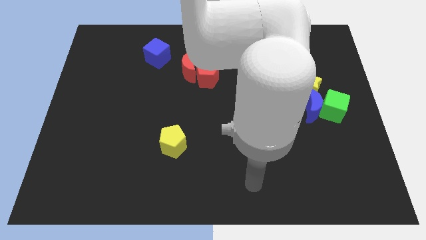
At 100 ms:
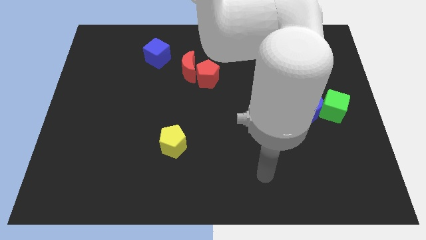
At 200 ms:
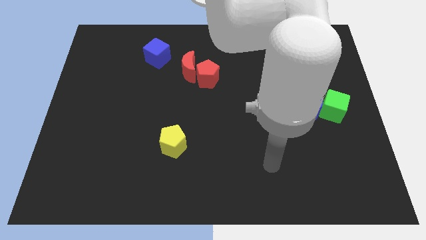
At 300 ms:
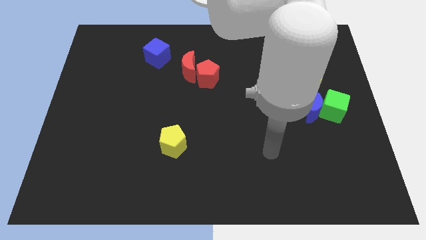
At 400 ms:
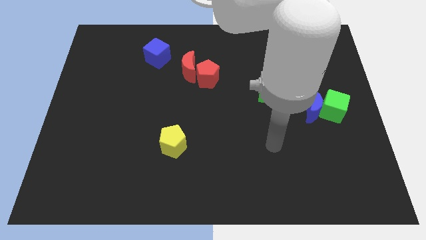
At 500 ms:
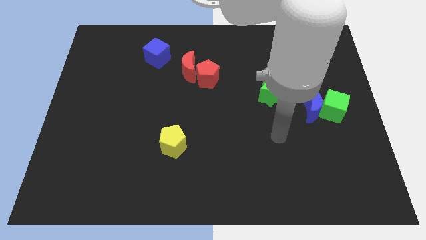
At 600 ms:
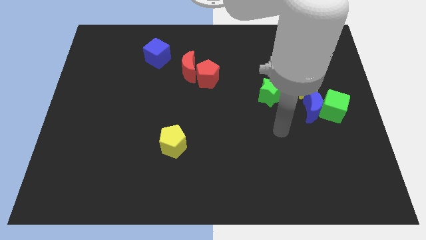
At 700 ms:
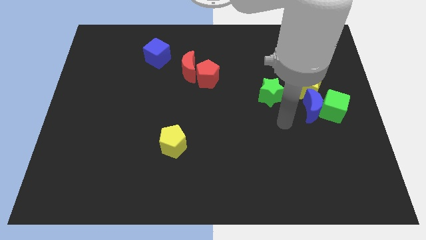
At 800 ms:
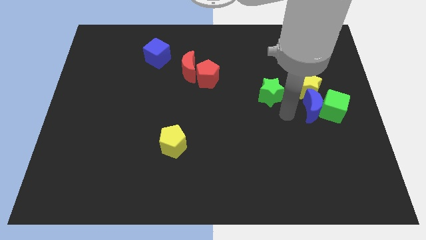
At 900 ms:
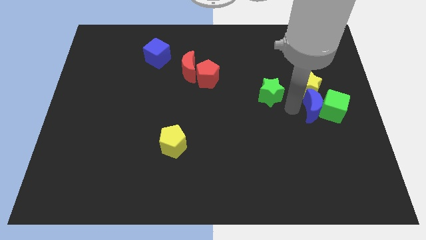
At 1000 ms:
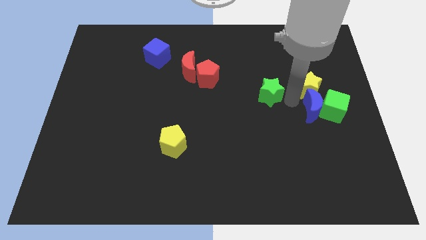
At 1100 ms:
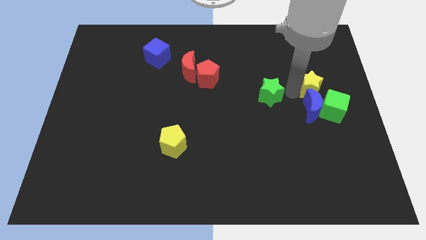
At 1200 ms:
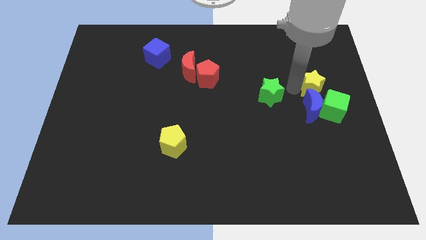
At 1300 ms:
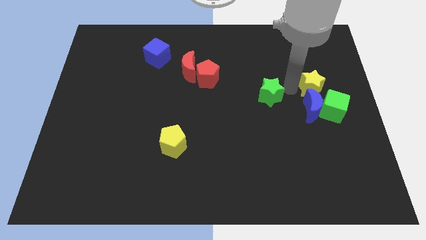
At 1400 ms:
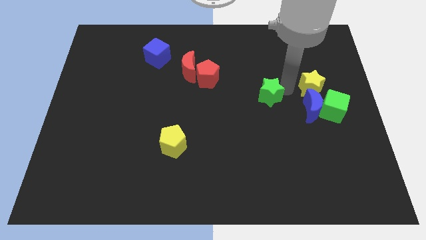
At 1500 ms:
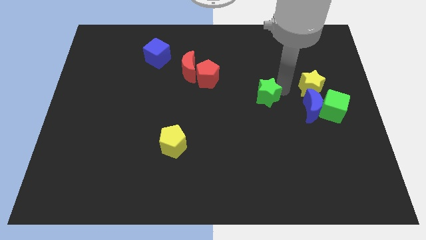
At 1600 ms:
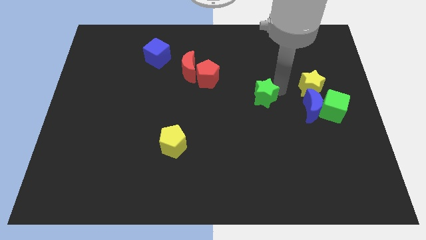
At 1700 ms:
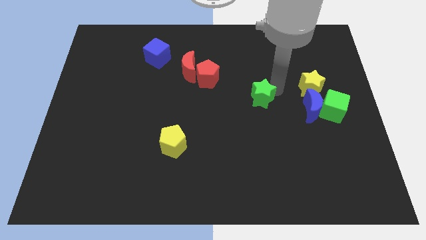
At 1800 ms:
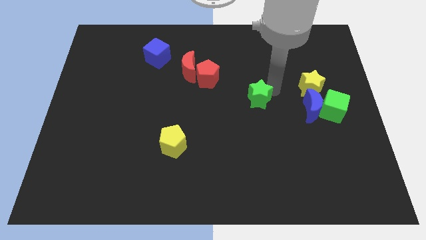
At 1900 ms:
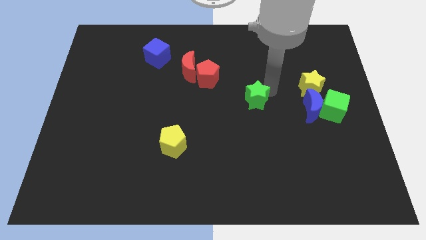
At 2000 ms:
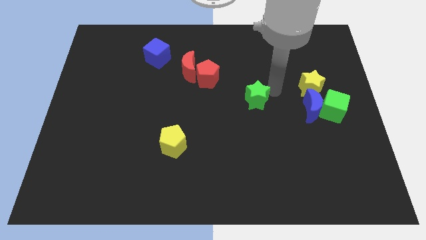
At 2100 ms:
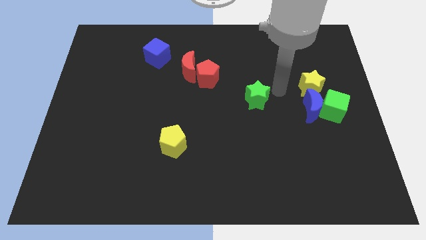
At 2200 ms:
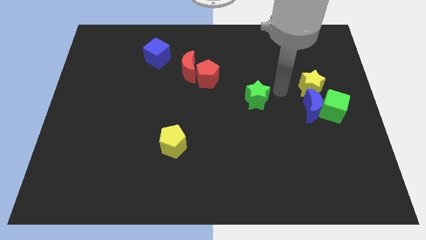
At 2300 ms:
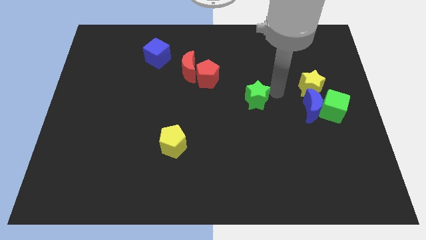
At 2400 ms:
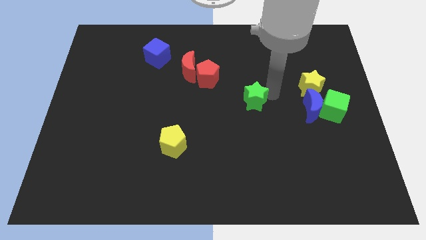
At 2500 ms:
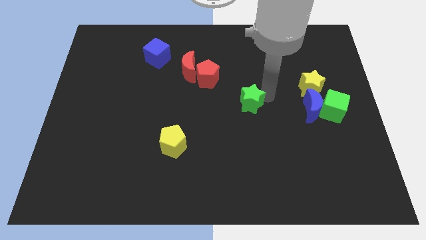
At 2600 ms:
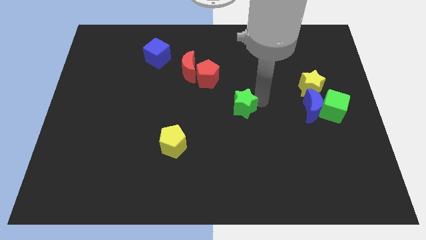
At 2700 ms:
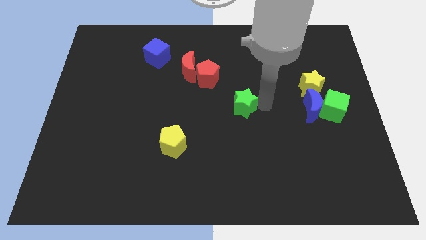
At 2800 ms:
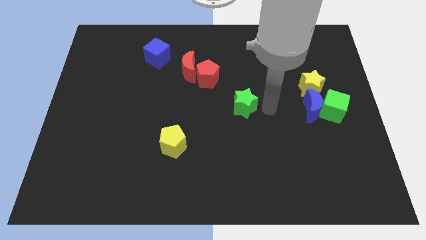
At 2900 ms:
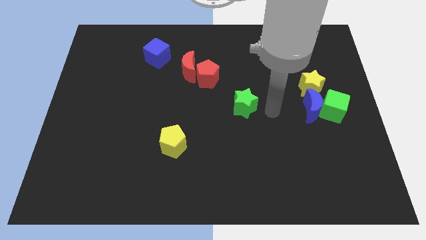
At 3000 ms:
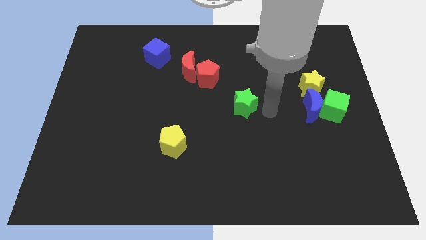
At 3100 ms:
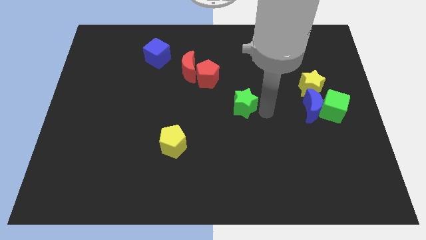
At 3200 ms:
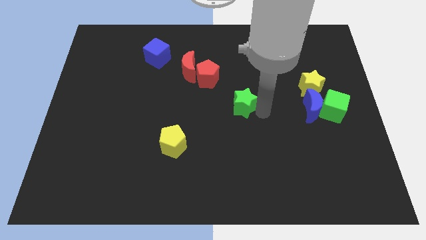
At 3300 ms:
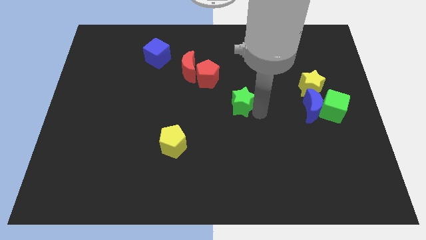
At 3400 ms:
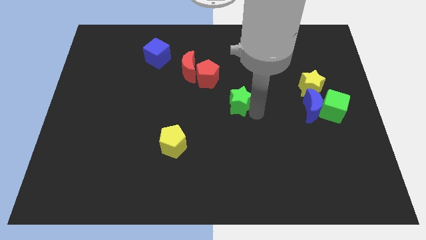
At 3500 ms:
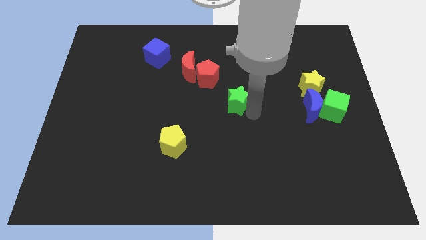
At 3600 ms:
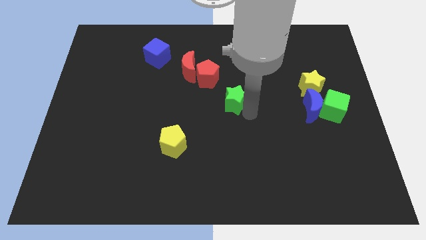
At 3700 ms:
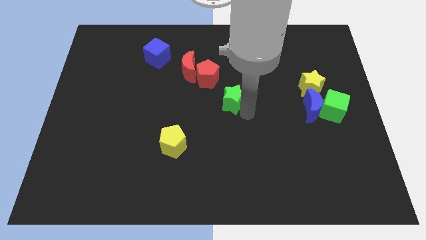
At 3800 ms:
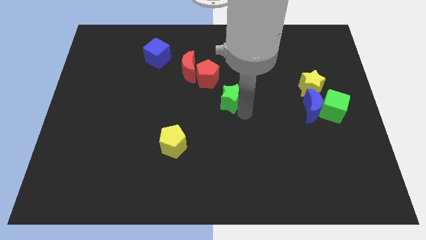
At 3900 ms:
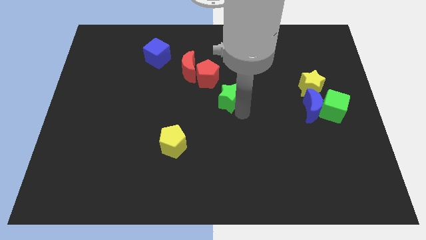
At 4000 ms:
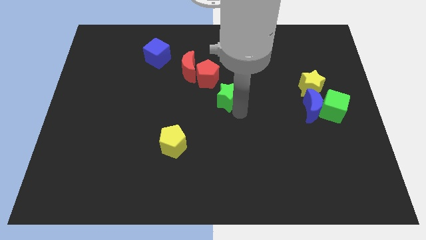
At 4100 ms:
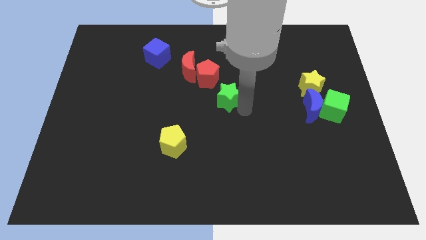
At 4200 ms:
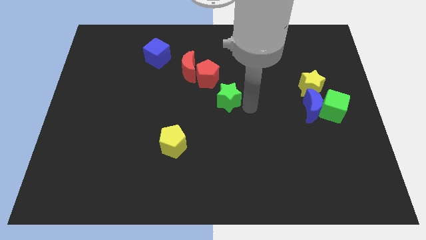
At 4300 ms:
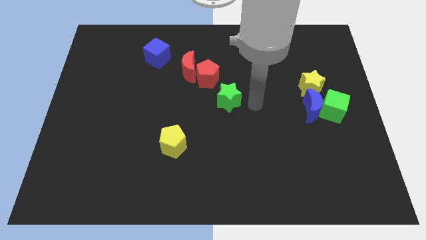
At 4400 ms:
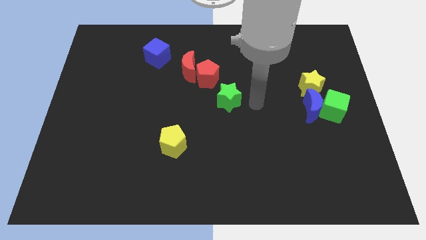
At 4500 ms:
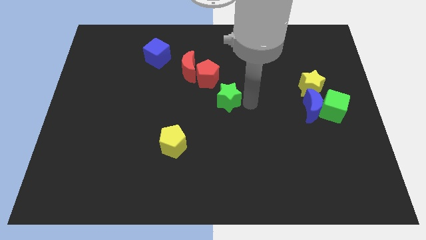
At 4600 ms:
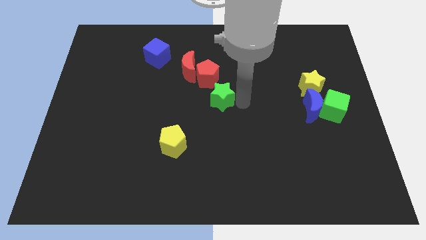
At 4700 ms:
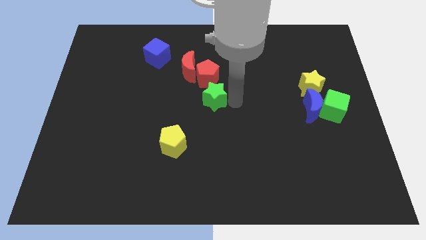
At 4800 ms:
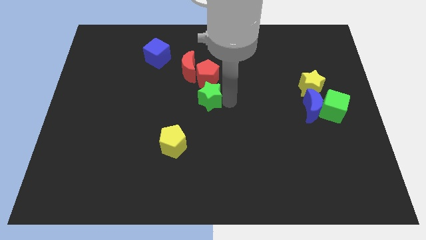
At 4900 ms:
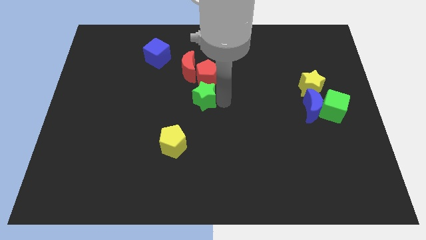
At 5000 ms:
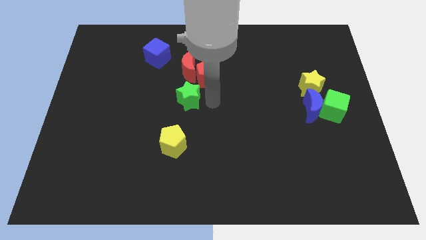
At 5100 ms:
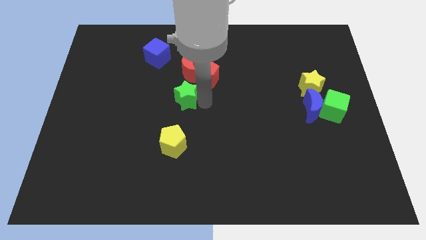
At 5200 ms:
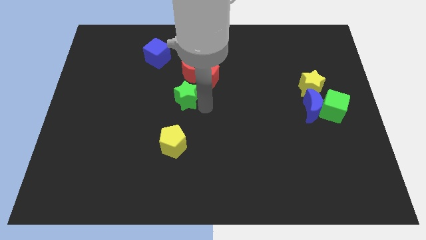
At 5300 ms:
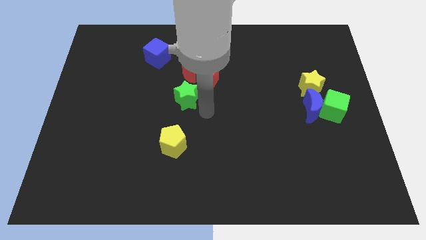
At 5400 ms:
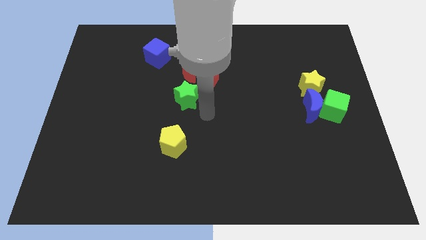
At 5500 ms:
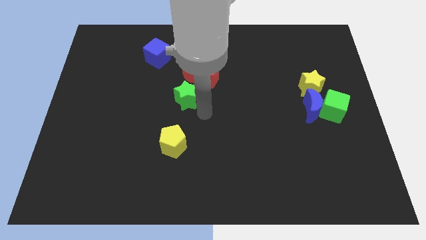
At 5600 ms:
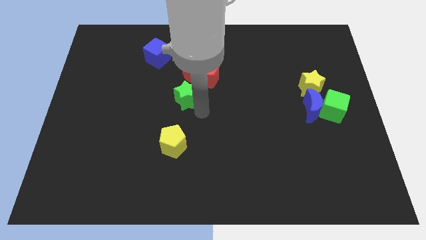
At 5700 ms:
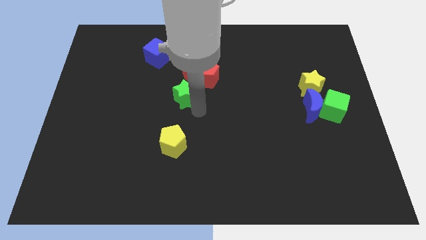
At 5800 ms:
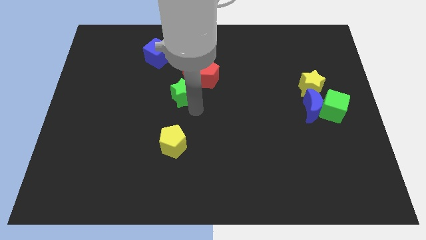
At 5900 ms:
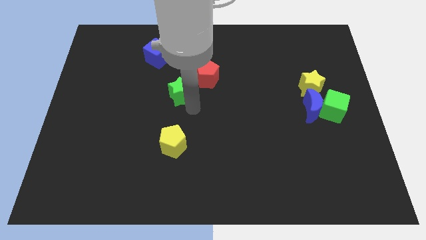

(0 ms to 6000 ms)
push the green star diagonally down and to the left of the red moon

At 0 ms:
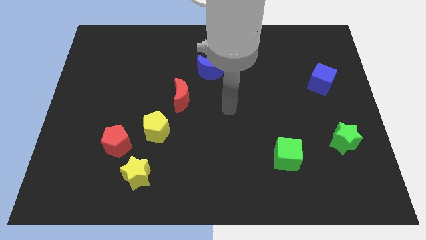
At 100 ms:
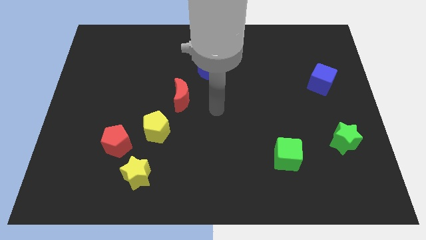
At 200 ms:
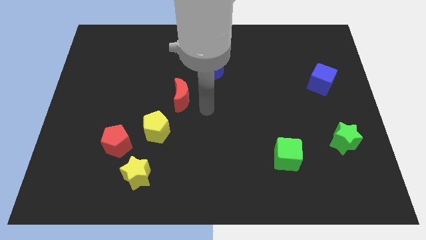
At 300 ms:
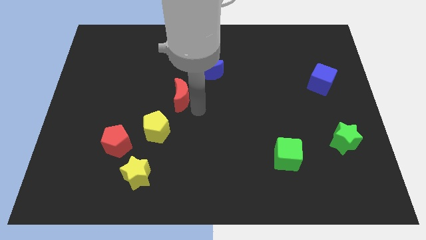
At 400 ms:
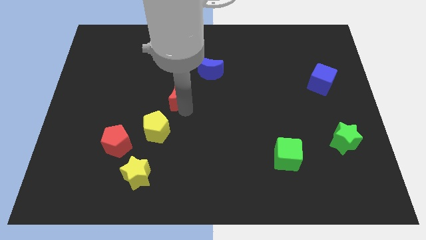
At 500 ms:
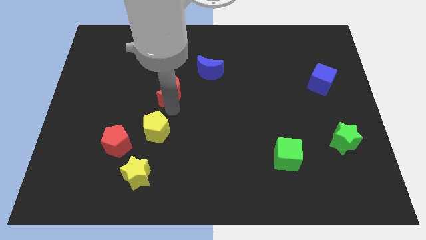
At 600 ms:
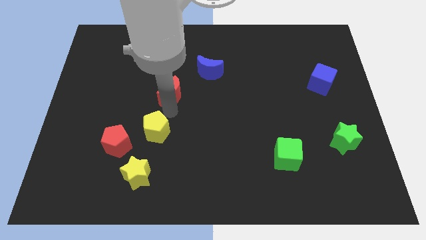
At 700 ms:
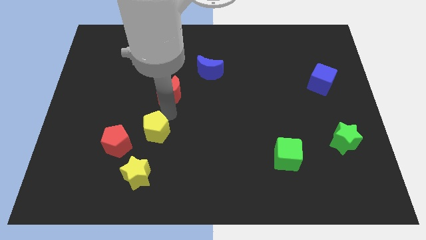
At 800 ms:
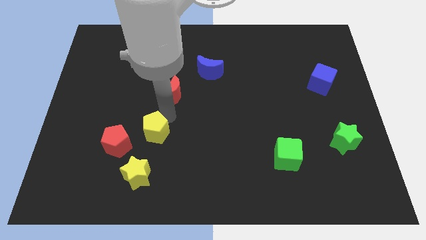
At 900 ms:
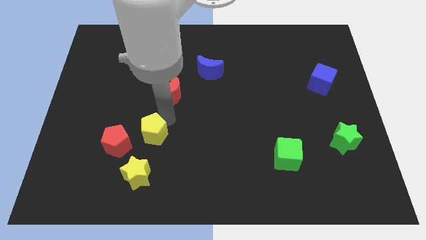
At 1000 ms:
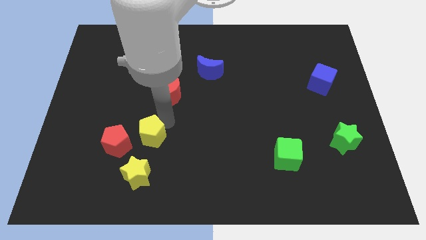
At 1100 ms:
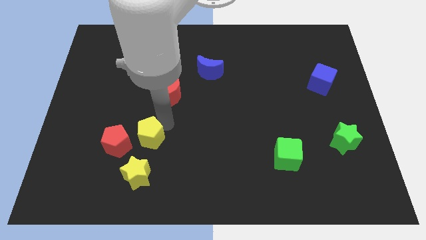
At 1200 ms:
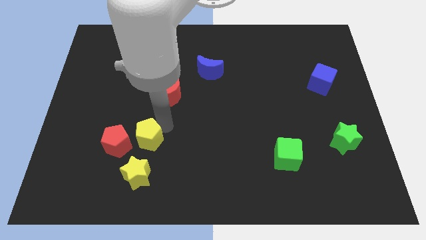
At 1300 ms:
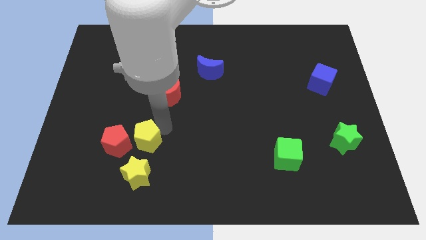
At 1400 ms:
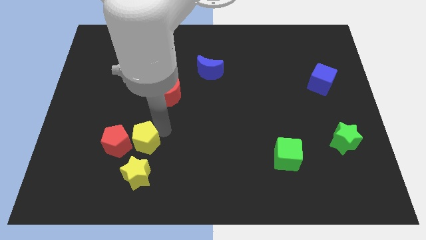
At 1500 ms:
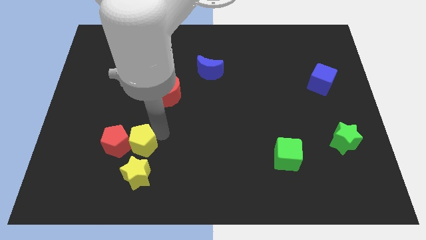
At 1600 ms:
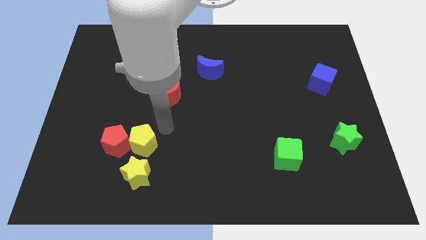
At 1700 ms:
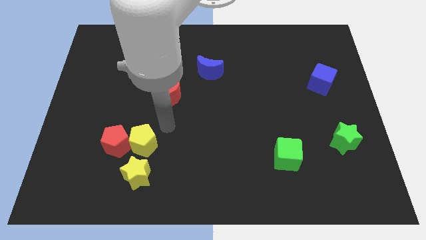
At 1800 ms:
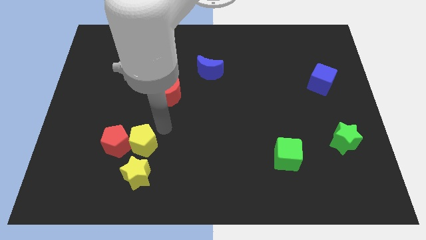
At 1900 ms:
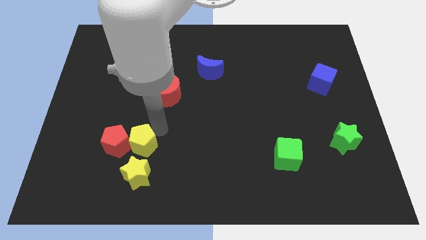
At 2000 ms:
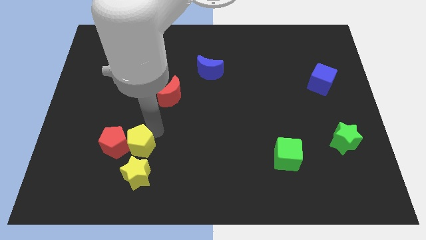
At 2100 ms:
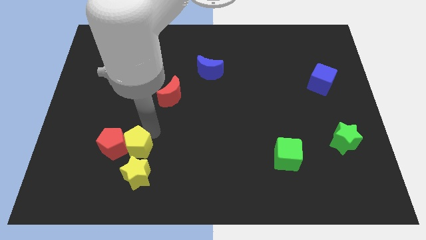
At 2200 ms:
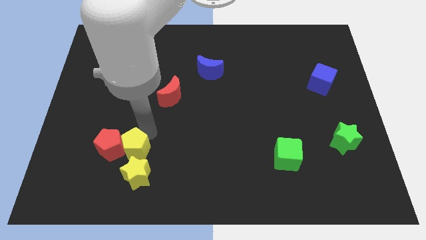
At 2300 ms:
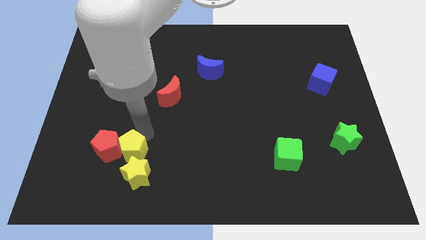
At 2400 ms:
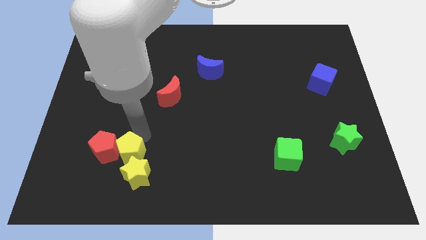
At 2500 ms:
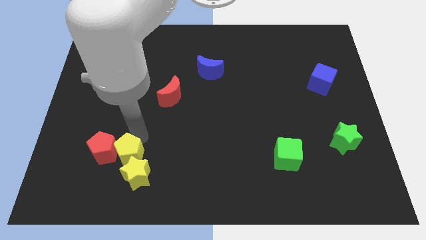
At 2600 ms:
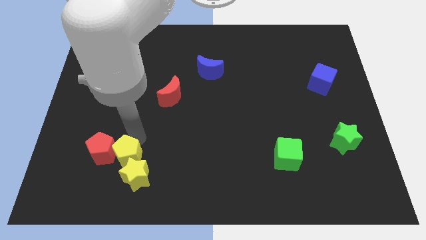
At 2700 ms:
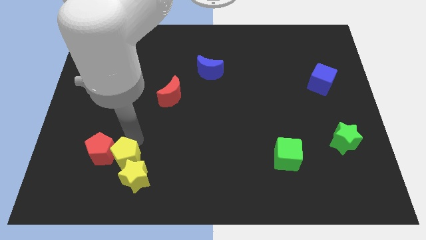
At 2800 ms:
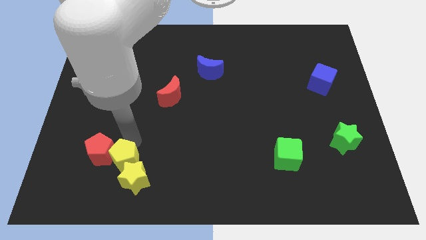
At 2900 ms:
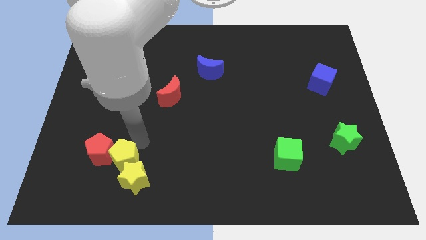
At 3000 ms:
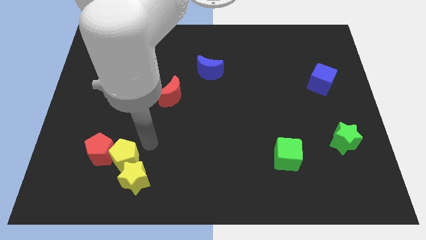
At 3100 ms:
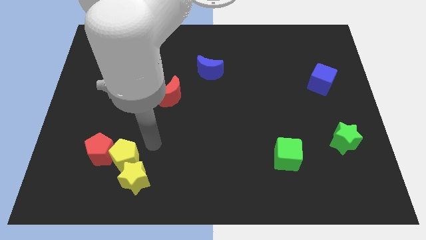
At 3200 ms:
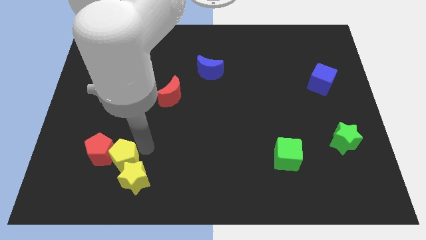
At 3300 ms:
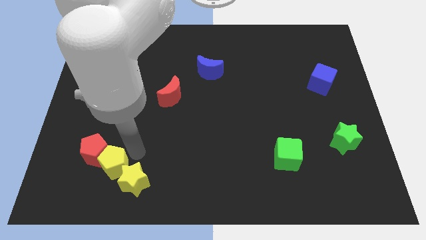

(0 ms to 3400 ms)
slide the yellow pentagon to the left side of the yellow star
